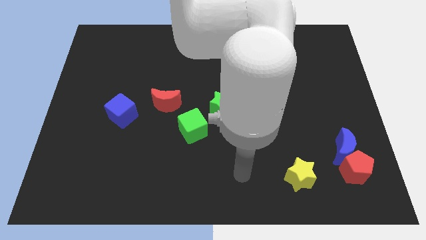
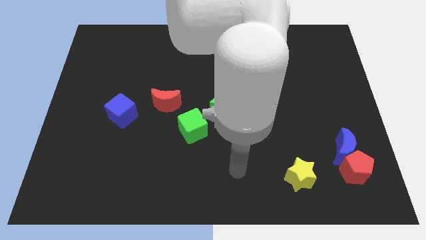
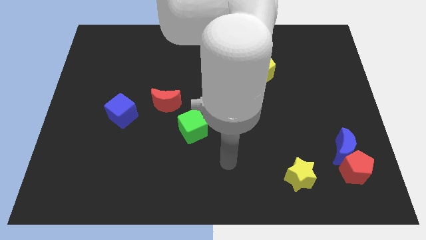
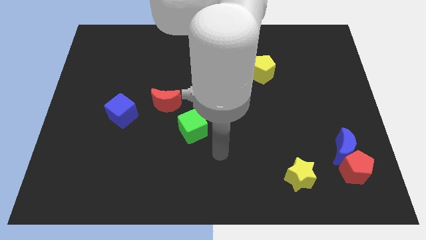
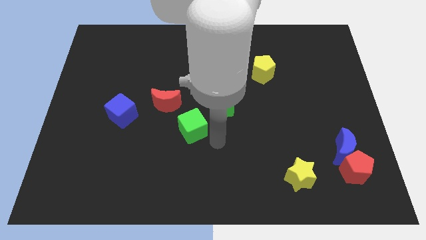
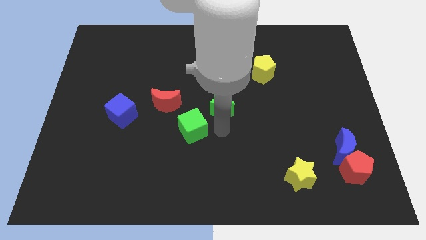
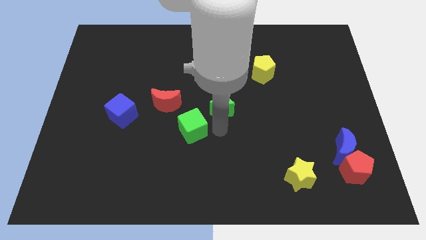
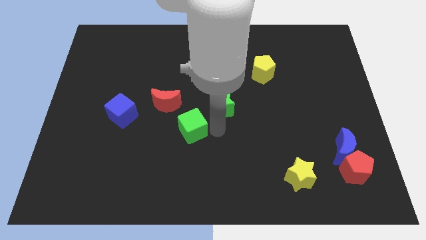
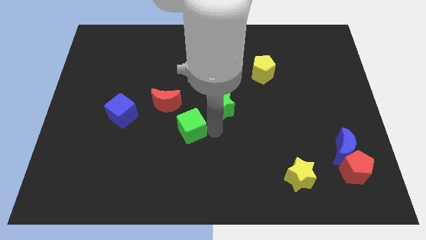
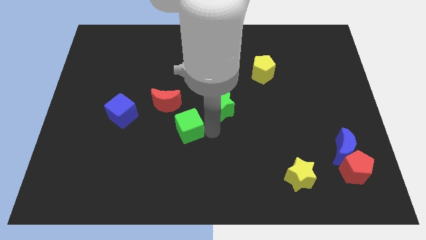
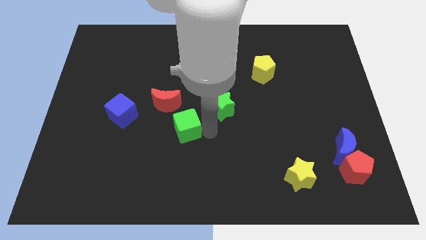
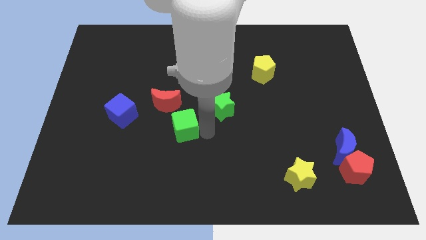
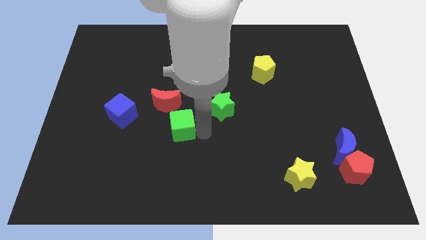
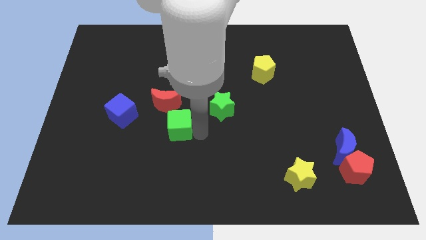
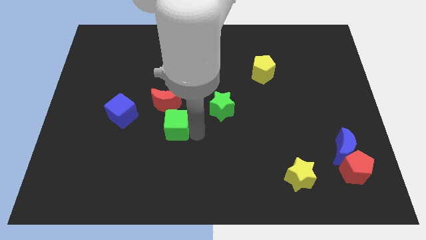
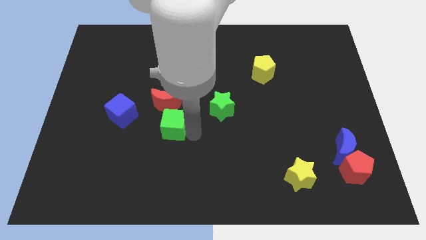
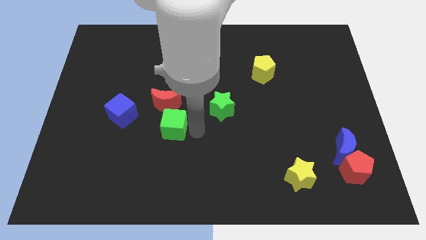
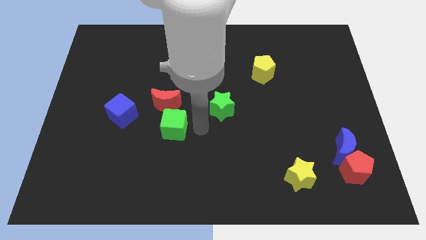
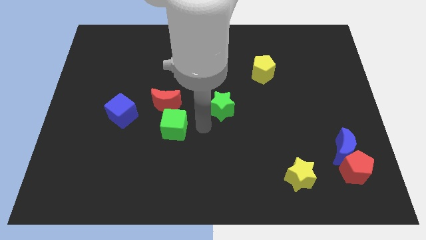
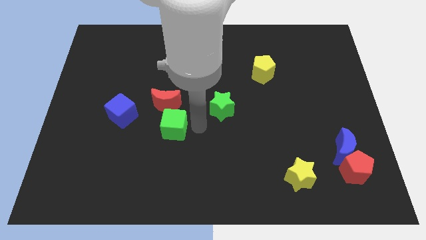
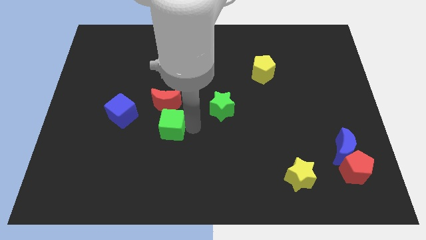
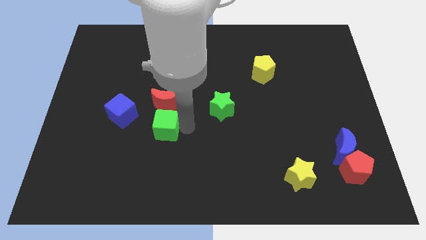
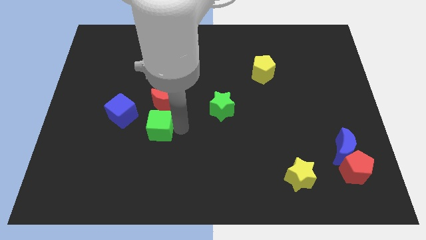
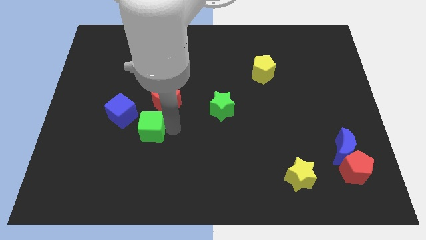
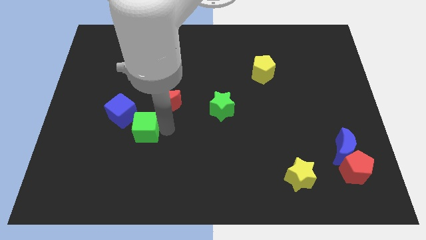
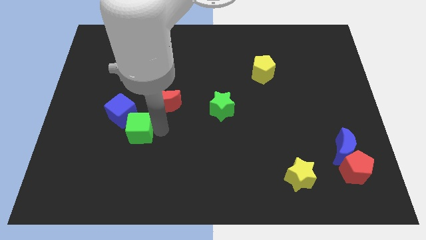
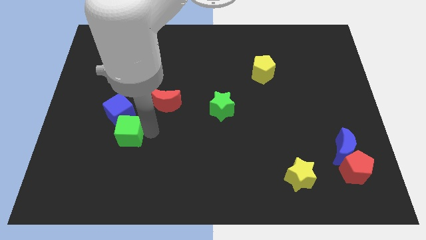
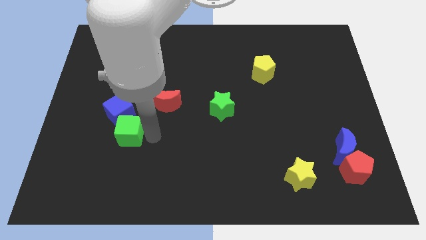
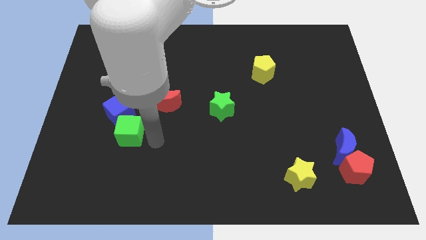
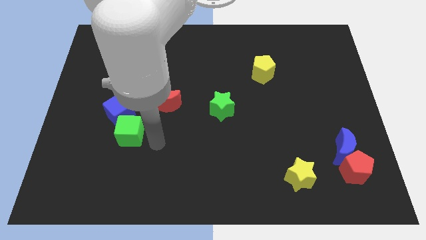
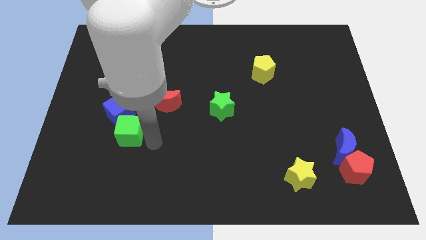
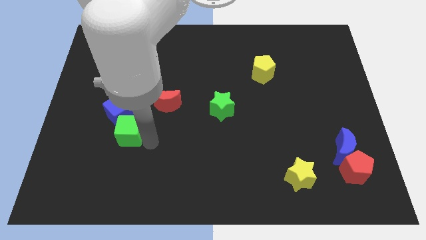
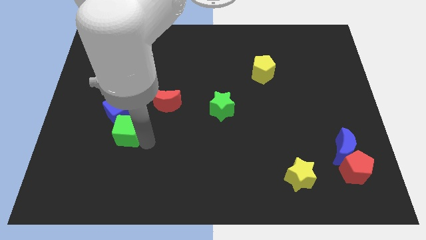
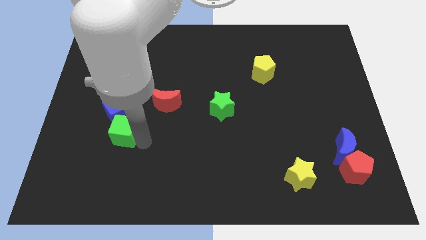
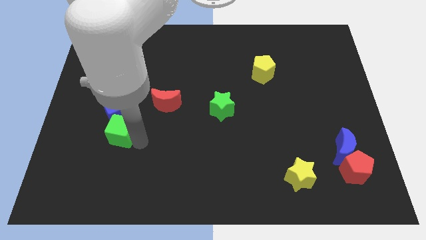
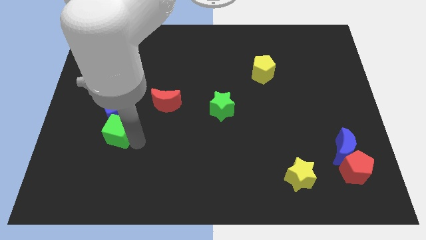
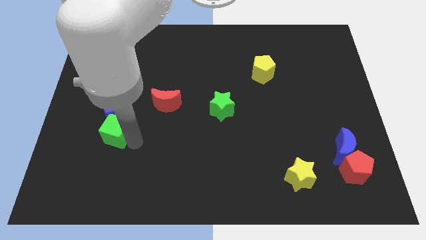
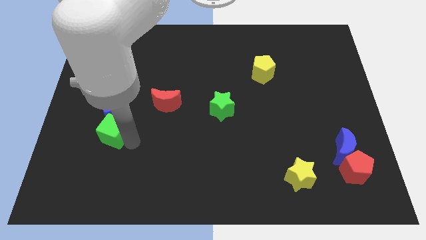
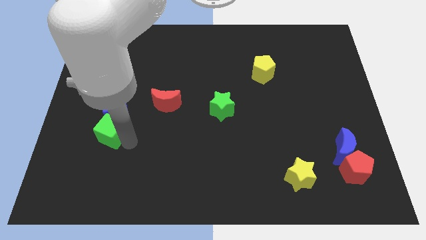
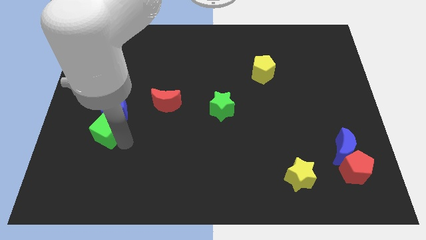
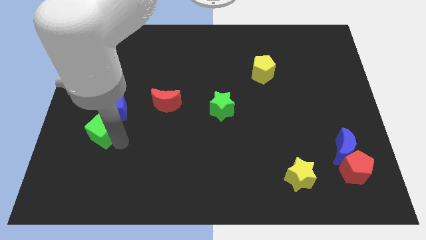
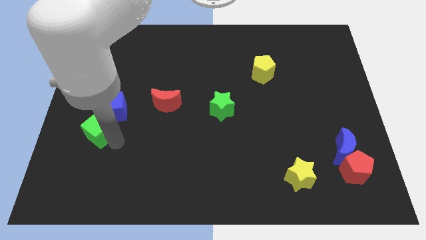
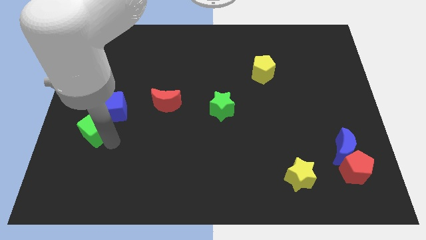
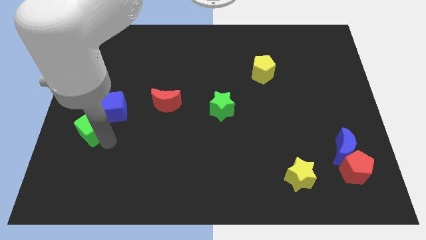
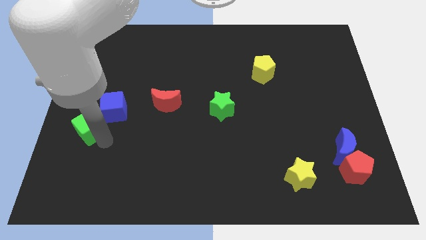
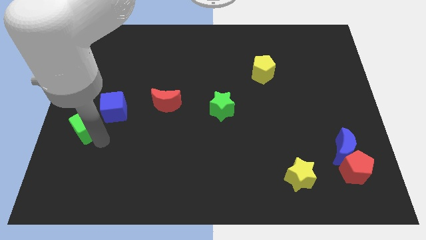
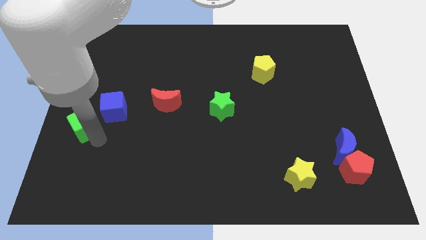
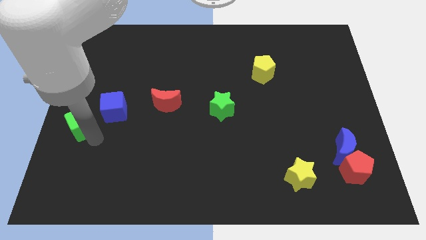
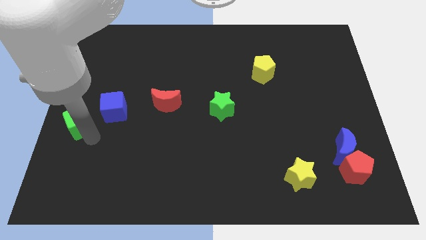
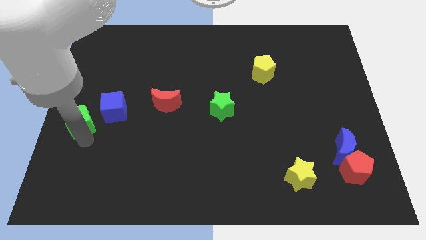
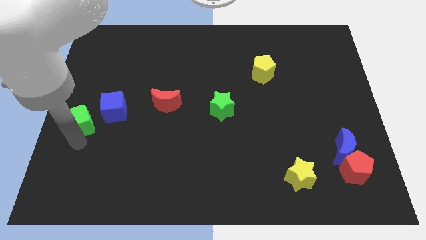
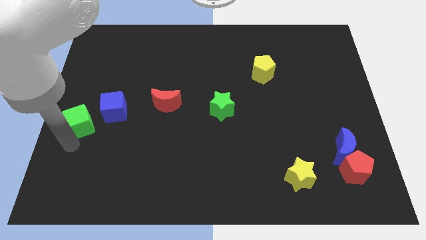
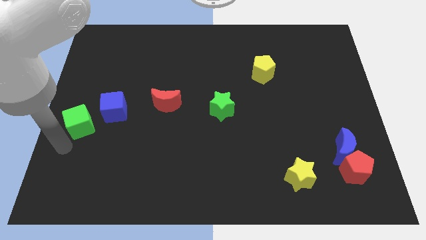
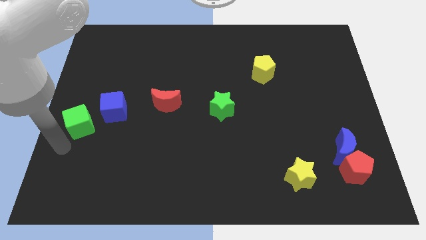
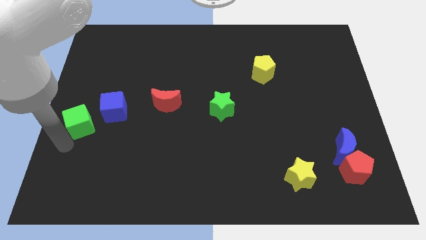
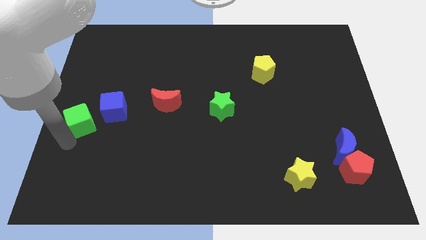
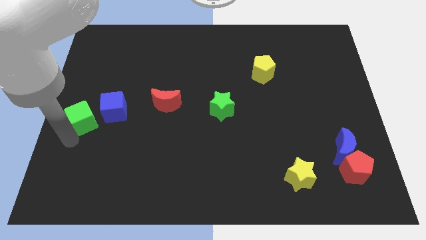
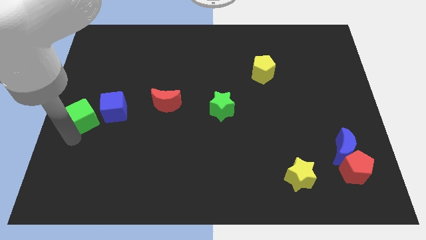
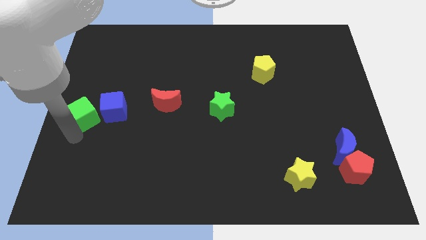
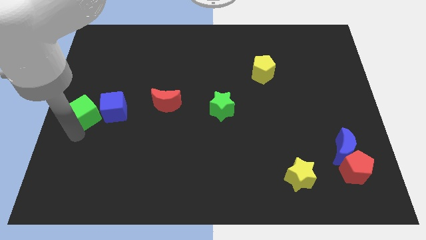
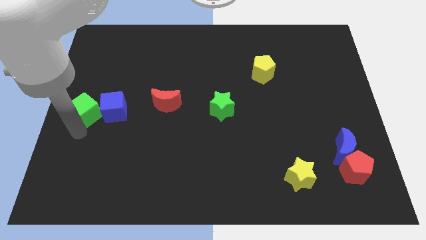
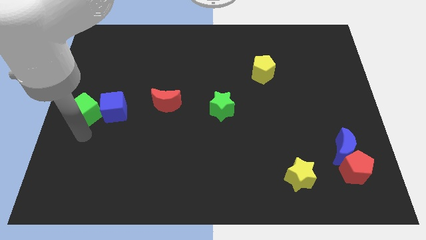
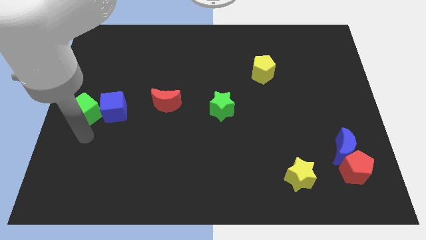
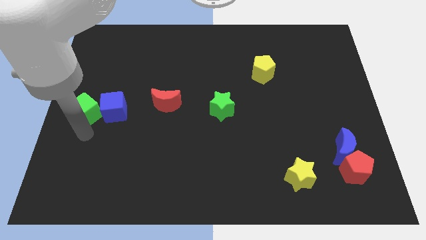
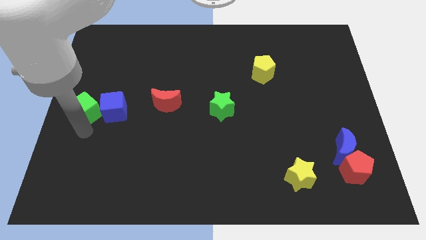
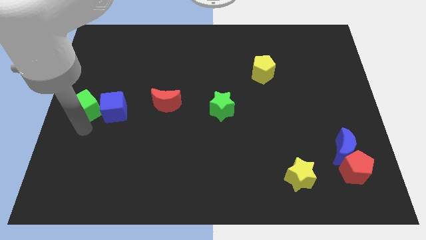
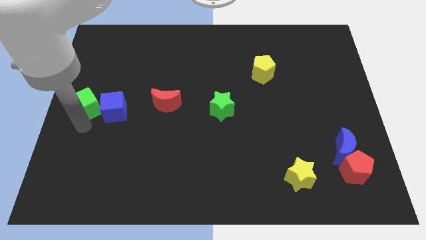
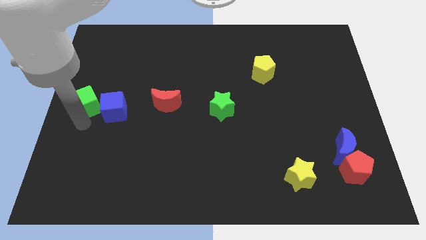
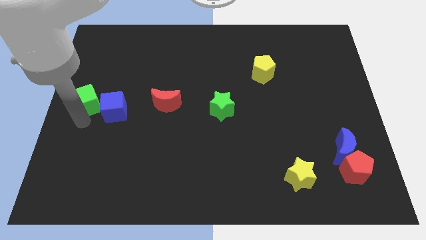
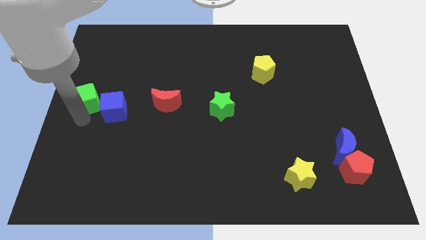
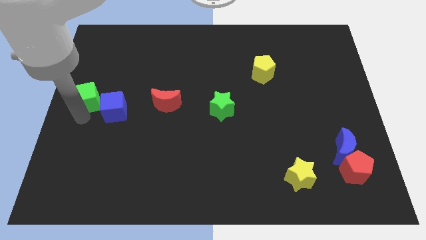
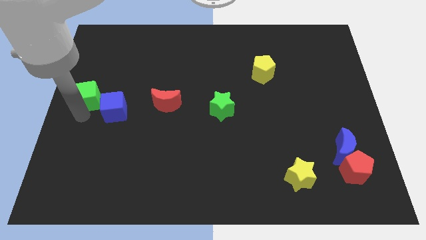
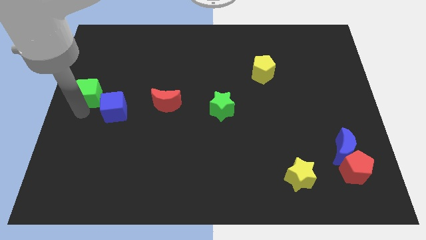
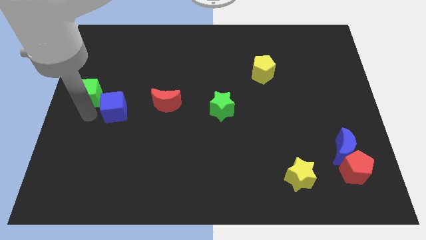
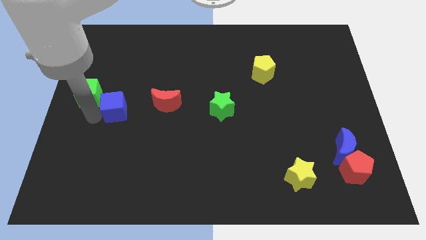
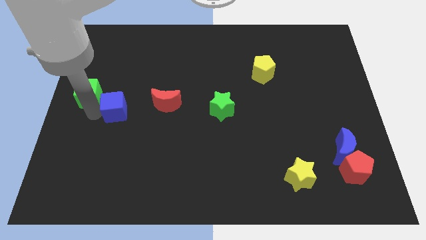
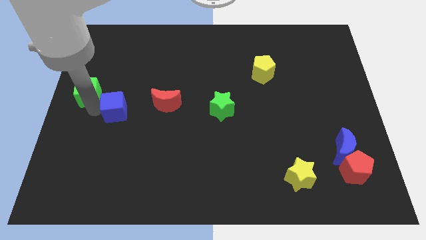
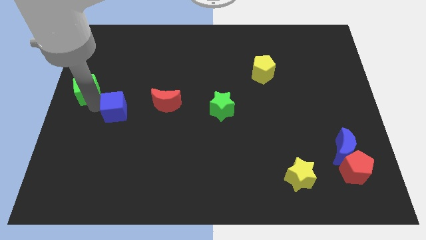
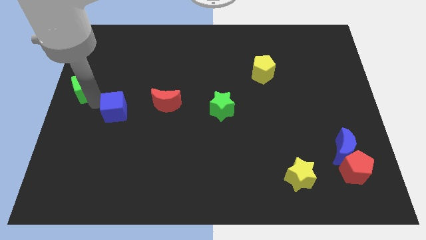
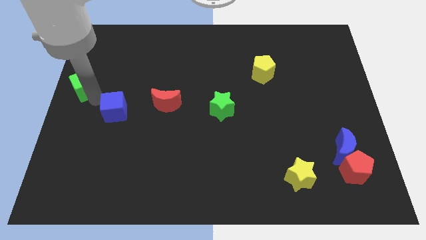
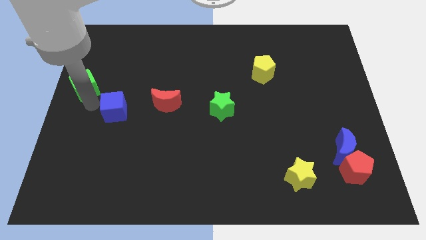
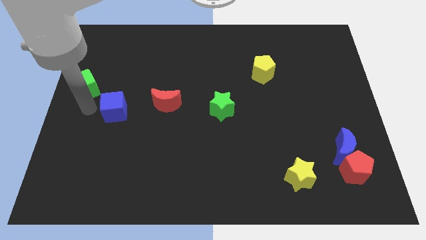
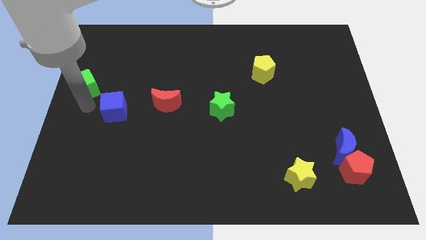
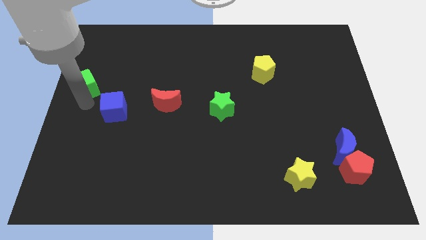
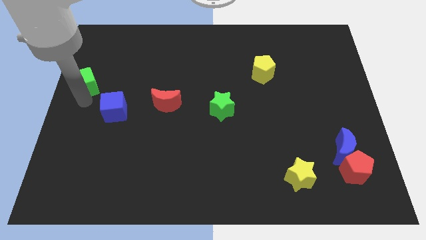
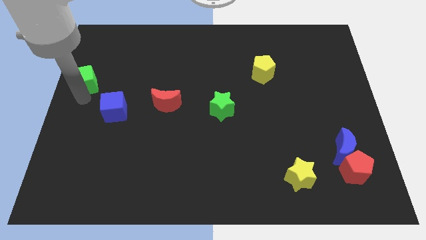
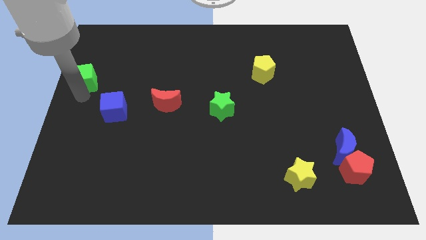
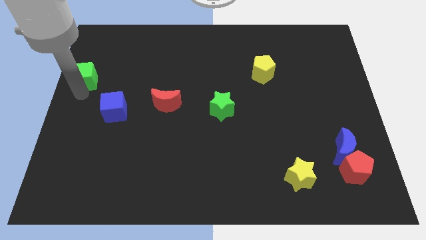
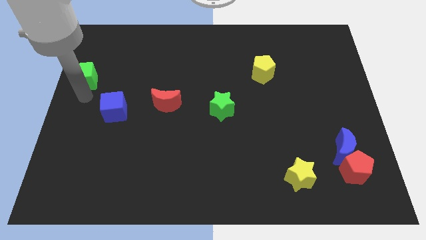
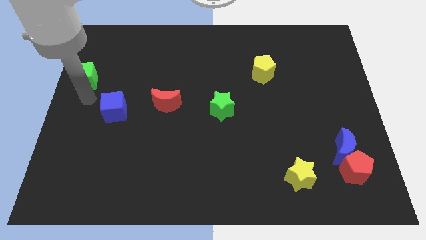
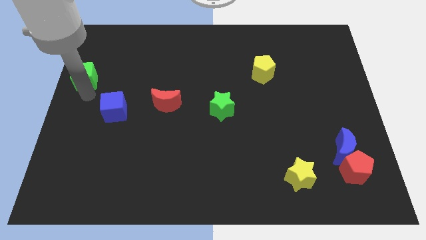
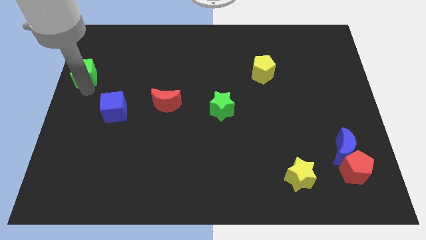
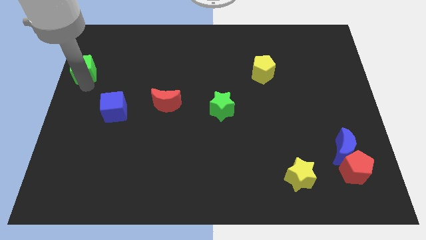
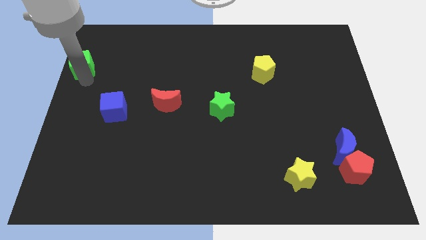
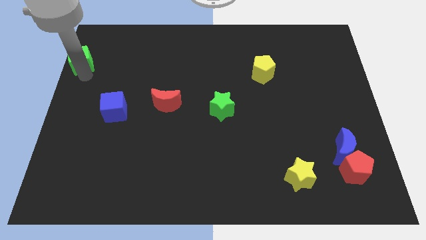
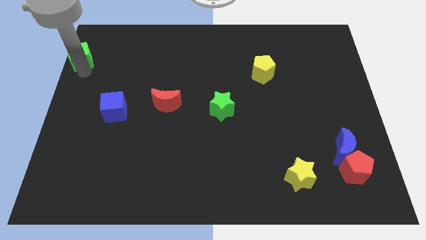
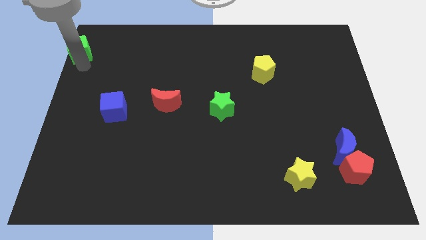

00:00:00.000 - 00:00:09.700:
move the green cube to the top left corner
